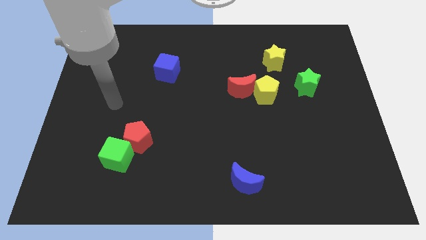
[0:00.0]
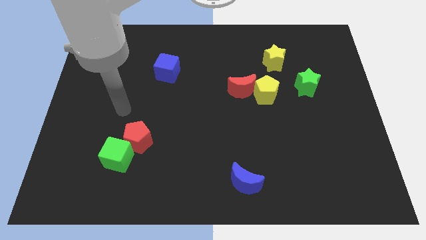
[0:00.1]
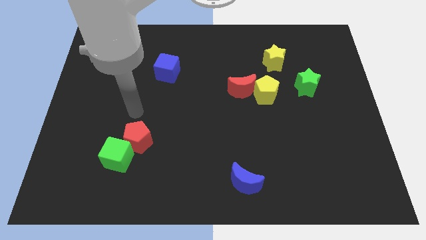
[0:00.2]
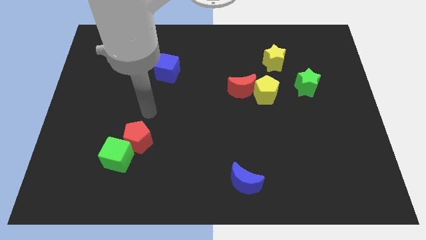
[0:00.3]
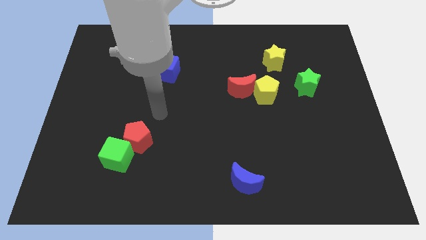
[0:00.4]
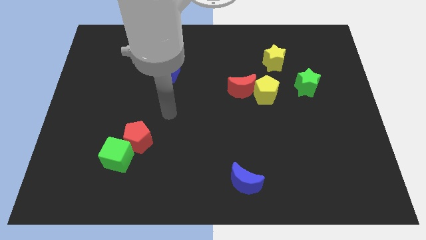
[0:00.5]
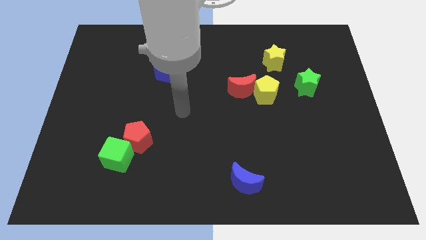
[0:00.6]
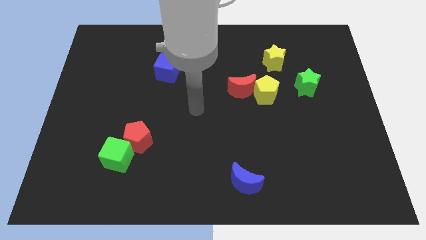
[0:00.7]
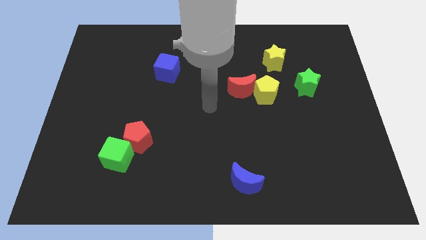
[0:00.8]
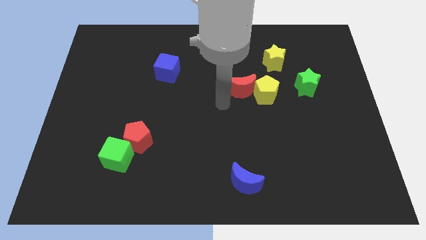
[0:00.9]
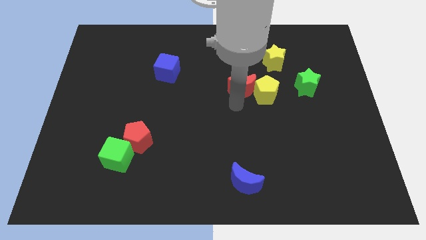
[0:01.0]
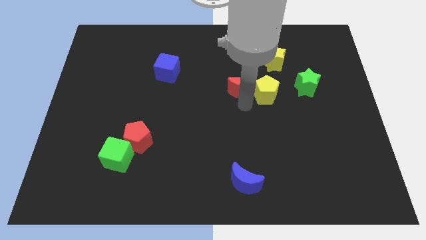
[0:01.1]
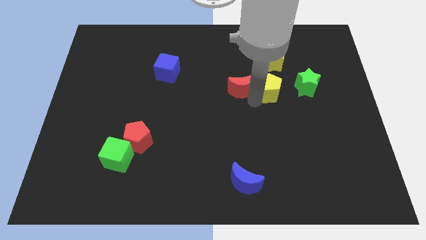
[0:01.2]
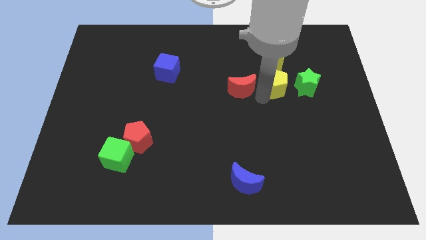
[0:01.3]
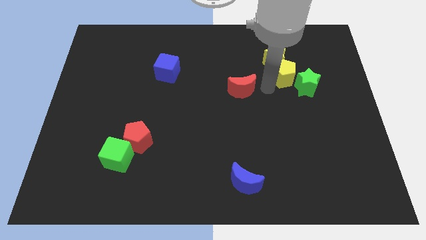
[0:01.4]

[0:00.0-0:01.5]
pull the red moon apart from the yellow pentagon

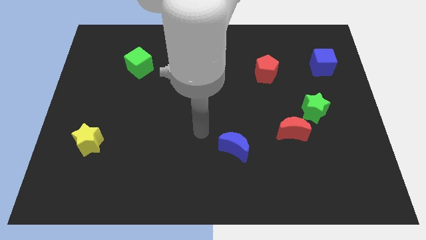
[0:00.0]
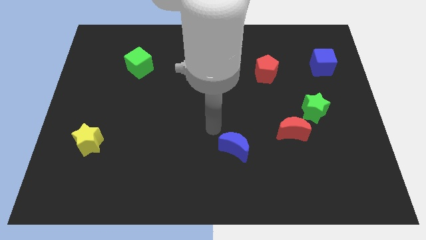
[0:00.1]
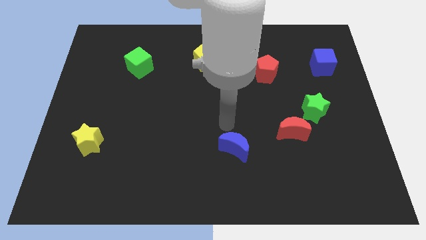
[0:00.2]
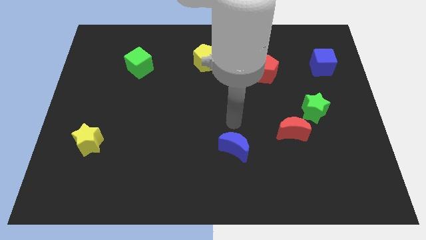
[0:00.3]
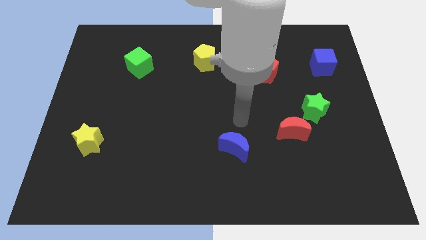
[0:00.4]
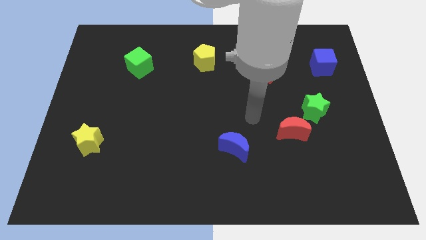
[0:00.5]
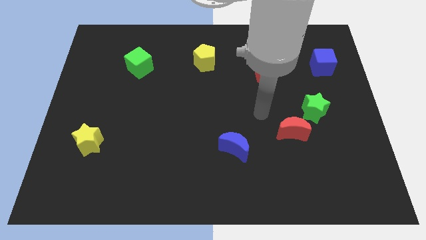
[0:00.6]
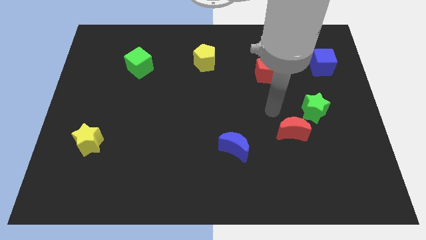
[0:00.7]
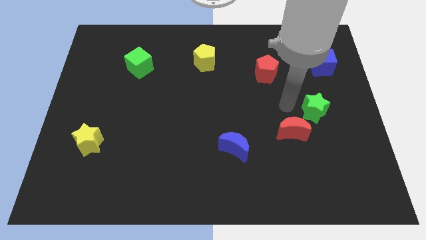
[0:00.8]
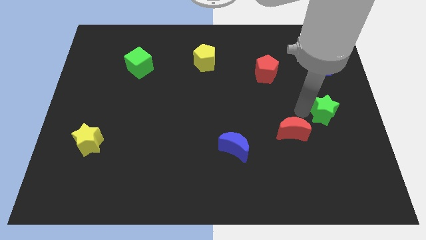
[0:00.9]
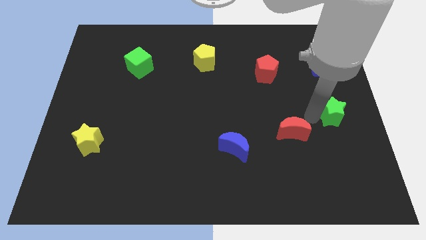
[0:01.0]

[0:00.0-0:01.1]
move the red moon away from the green star

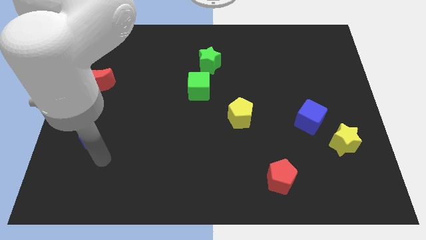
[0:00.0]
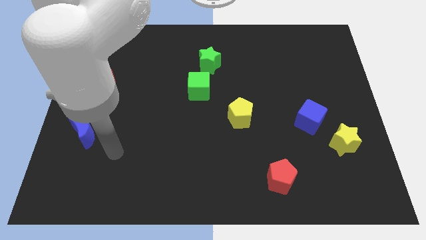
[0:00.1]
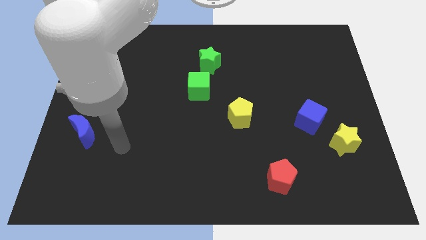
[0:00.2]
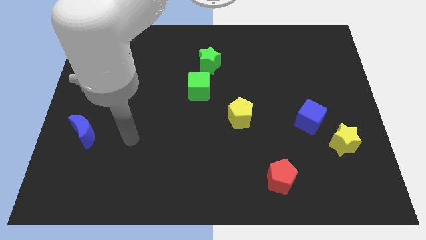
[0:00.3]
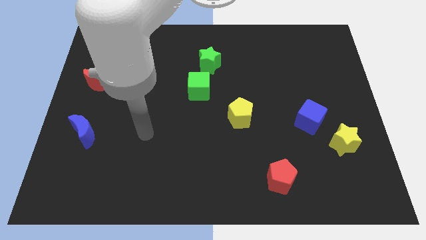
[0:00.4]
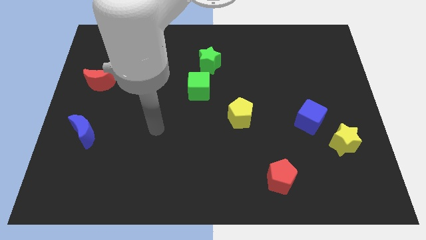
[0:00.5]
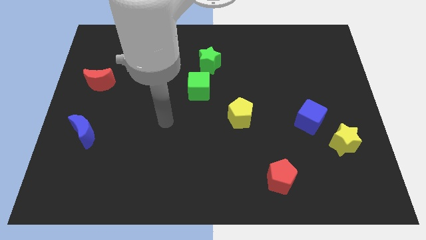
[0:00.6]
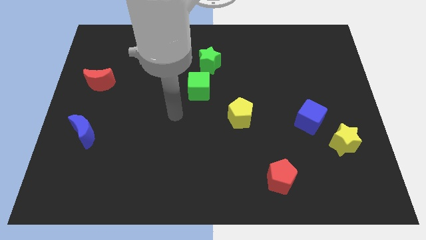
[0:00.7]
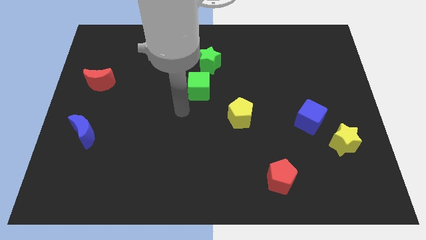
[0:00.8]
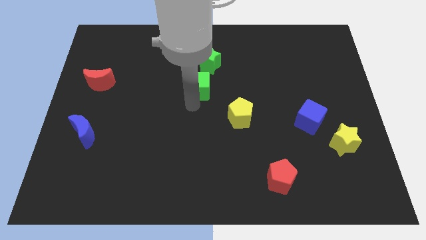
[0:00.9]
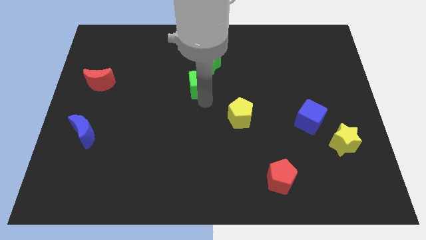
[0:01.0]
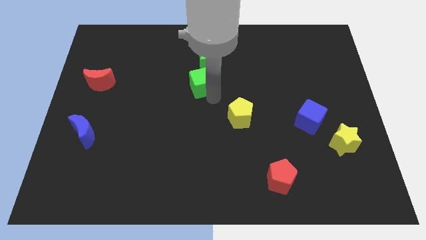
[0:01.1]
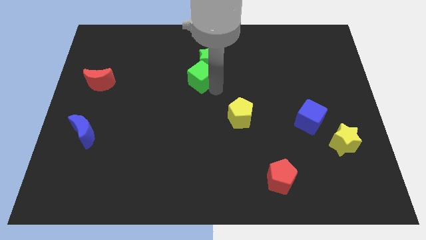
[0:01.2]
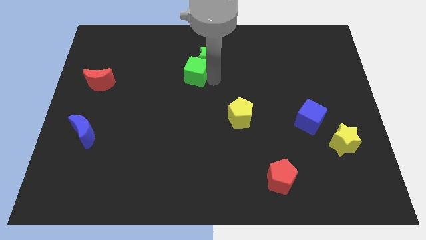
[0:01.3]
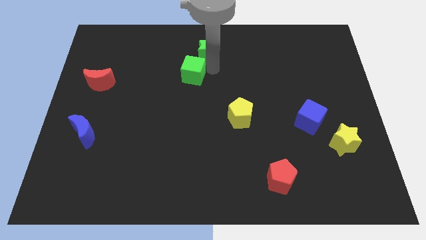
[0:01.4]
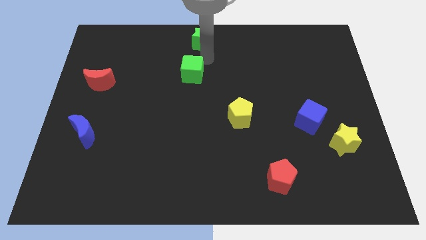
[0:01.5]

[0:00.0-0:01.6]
move the green cube away from the green star

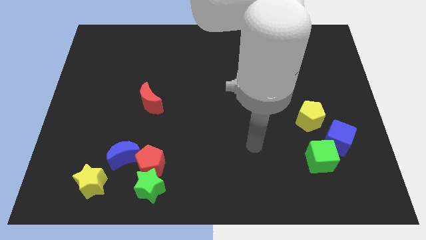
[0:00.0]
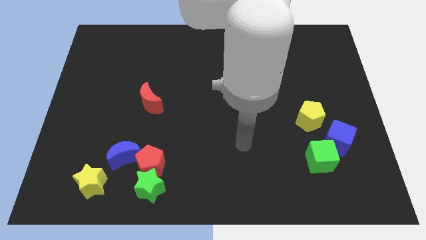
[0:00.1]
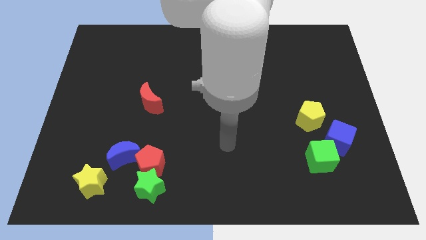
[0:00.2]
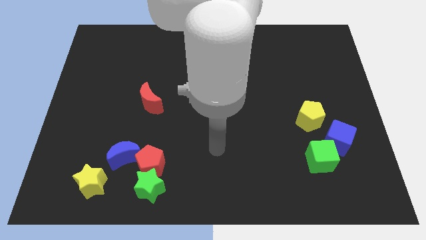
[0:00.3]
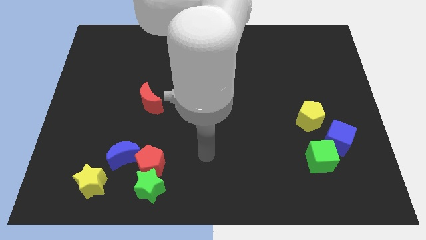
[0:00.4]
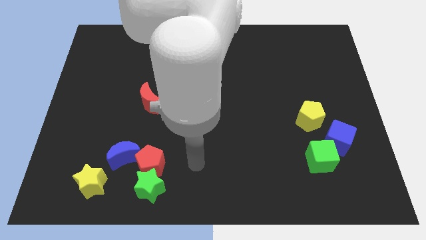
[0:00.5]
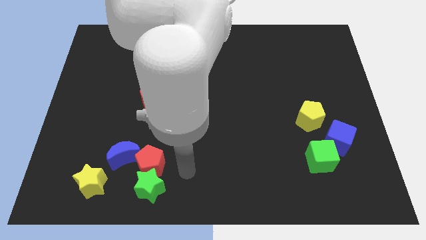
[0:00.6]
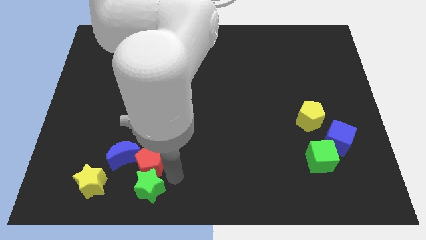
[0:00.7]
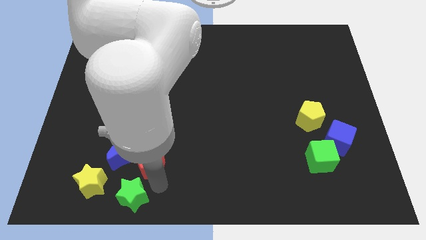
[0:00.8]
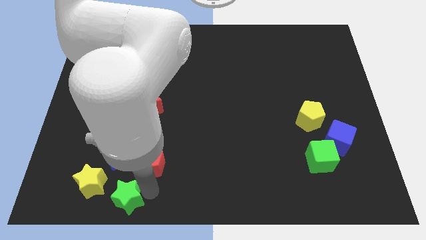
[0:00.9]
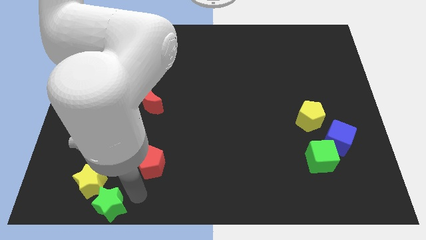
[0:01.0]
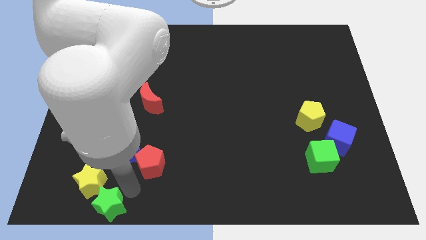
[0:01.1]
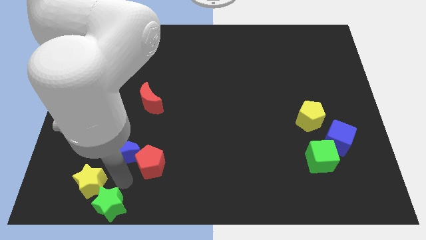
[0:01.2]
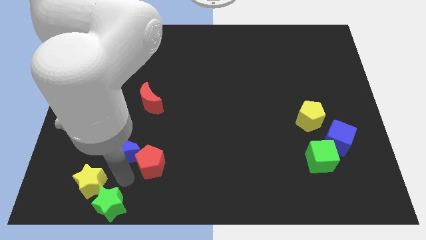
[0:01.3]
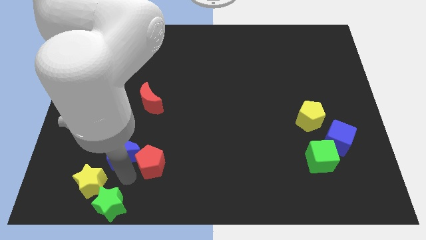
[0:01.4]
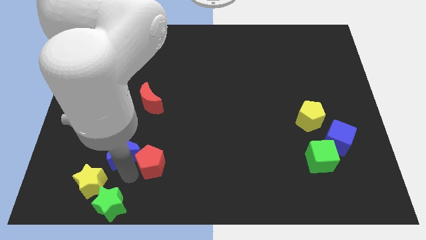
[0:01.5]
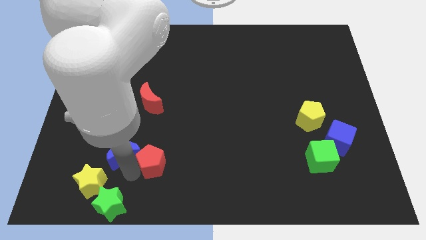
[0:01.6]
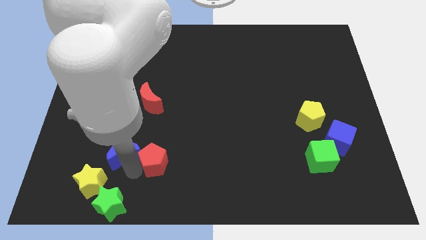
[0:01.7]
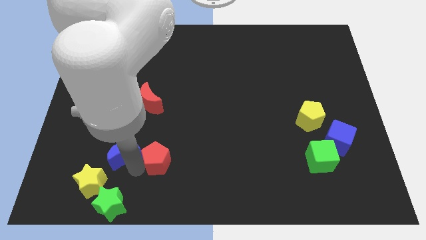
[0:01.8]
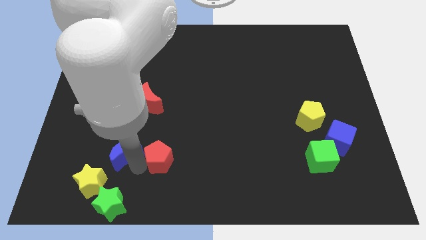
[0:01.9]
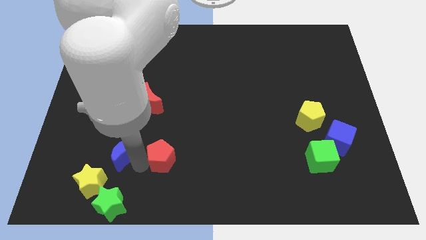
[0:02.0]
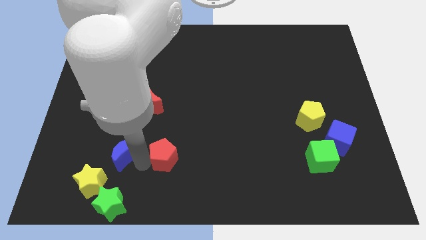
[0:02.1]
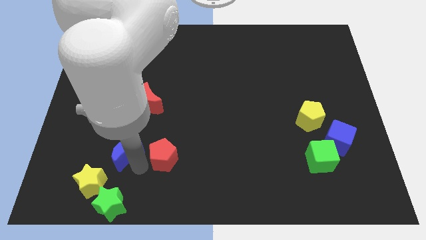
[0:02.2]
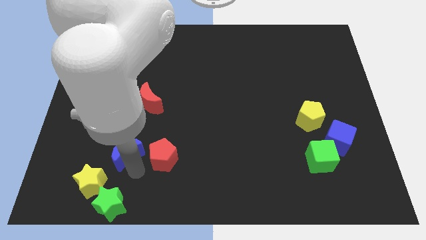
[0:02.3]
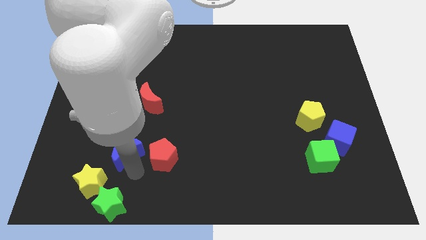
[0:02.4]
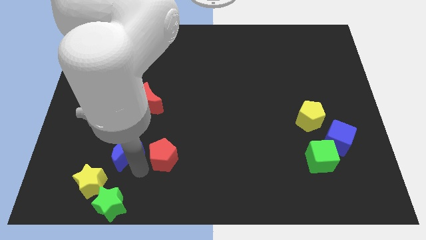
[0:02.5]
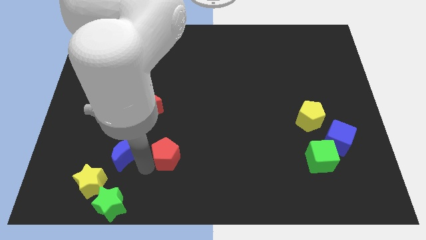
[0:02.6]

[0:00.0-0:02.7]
pull the red pentagon apart from the green star and blue moon

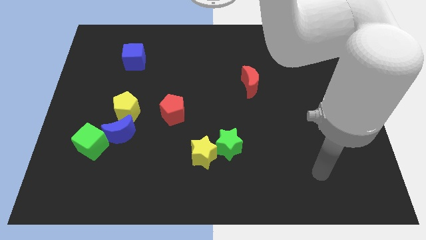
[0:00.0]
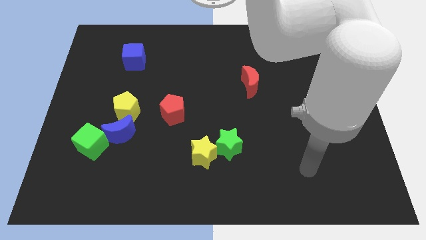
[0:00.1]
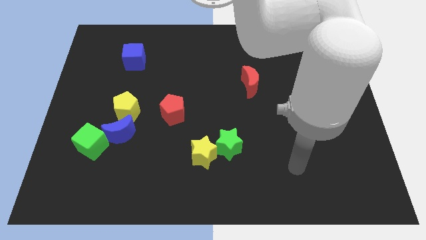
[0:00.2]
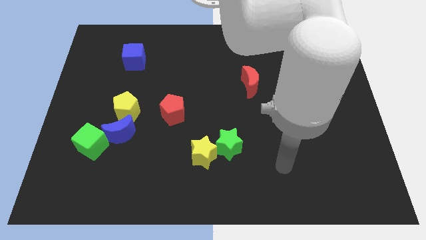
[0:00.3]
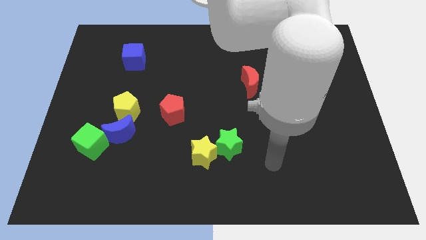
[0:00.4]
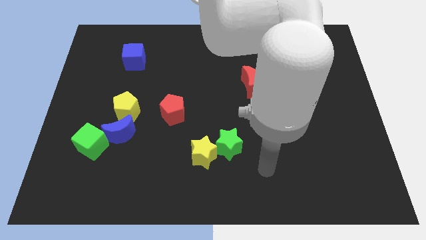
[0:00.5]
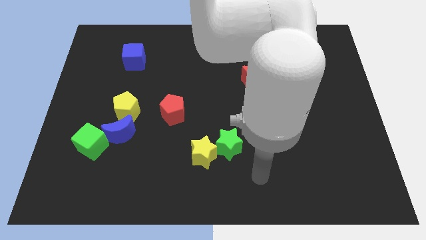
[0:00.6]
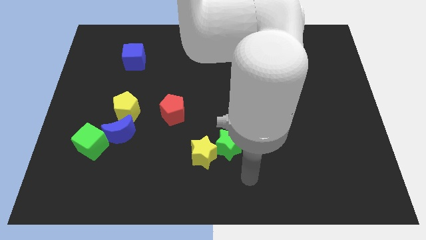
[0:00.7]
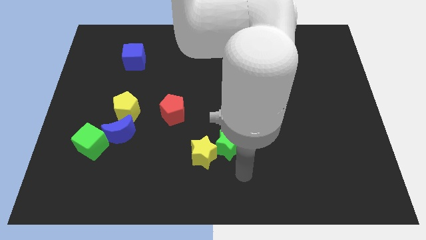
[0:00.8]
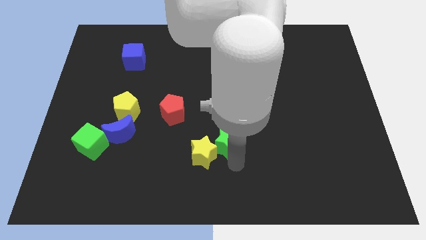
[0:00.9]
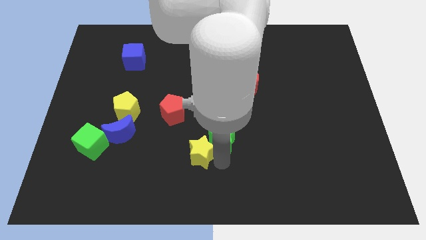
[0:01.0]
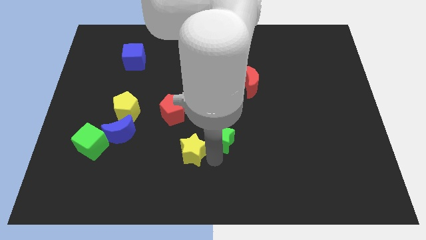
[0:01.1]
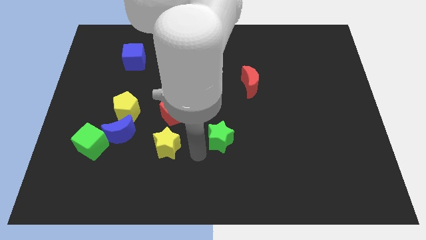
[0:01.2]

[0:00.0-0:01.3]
move the green star away from the yellow star

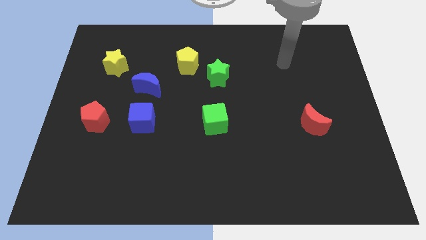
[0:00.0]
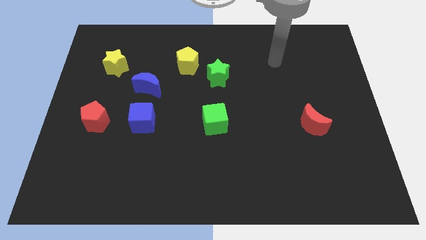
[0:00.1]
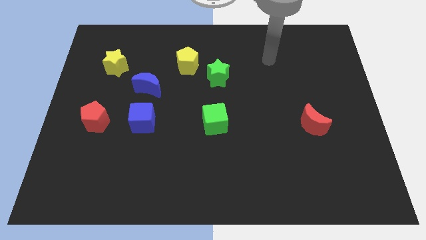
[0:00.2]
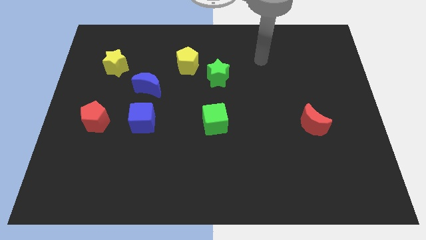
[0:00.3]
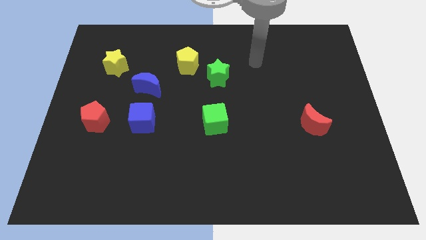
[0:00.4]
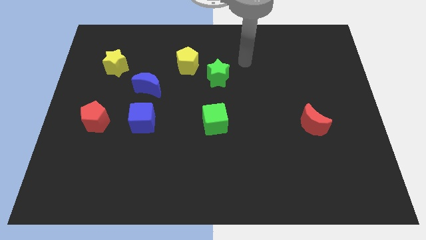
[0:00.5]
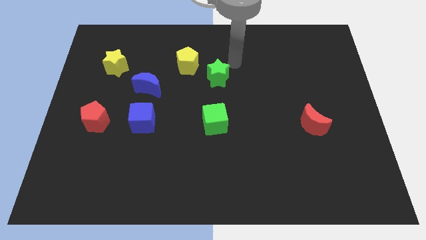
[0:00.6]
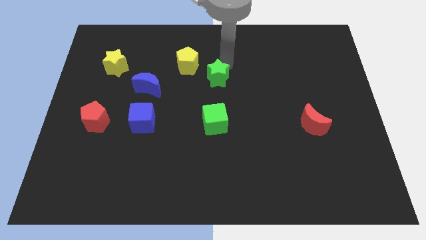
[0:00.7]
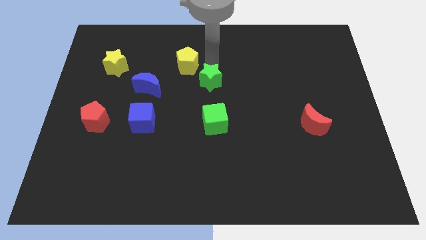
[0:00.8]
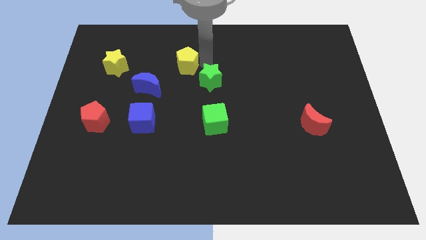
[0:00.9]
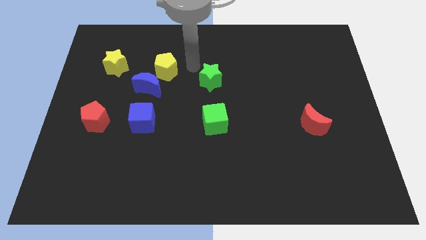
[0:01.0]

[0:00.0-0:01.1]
pull the green star apart from the yellow pentagon
